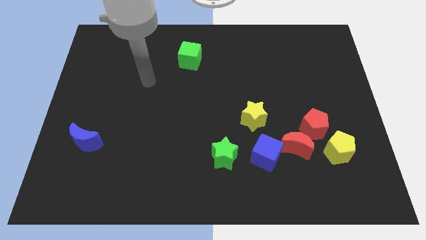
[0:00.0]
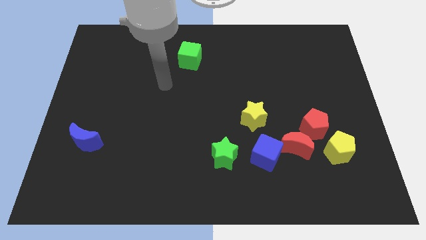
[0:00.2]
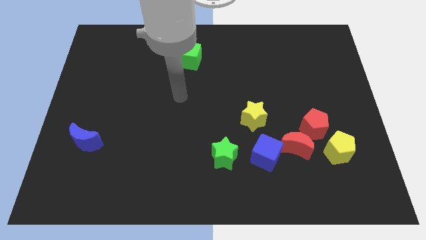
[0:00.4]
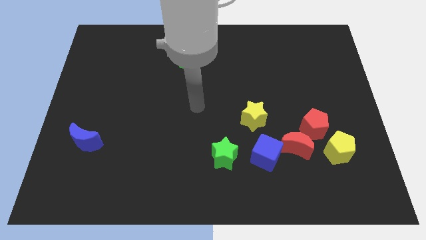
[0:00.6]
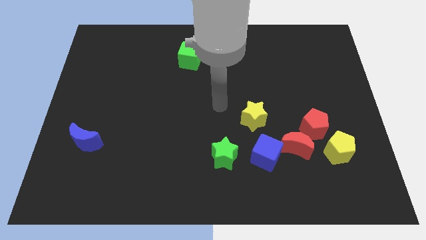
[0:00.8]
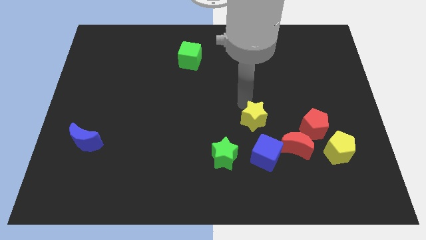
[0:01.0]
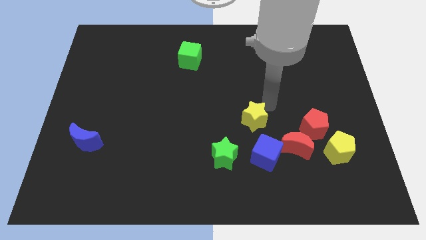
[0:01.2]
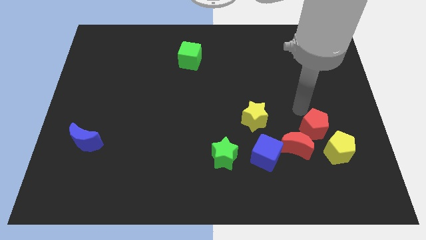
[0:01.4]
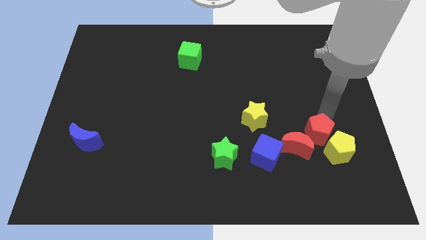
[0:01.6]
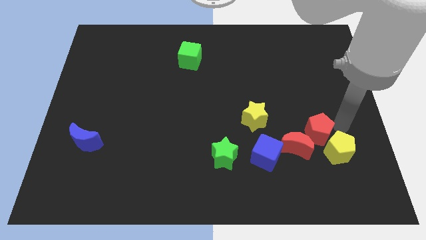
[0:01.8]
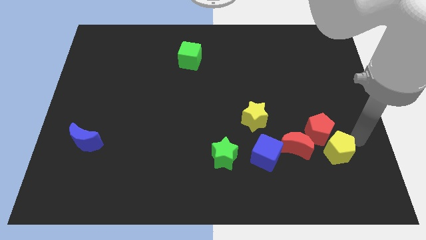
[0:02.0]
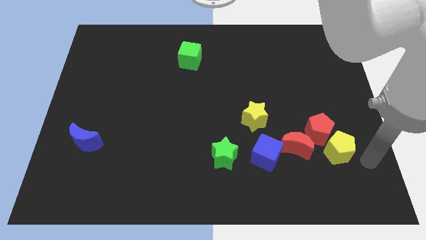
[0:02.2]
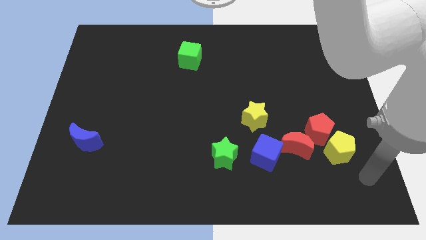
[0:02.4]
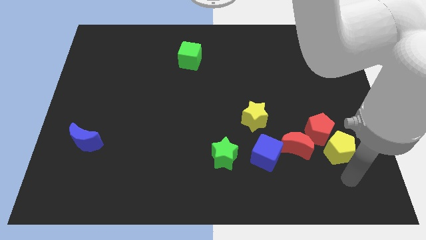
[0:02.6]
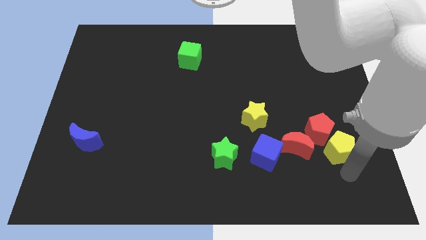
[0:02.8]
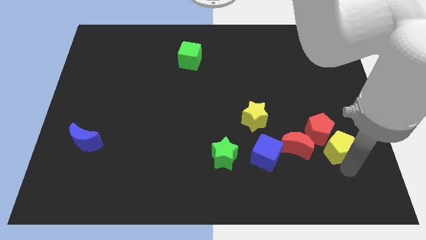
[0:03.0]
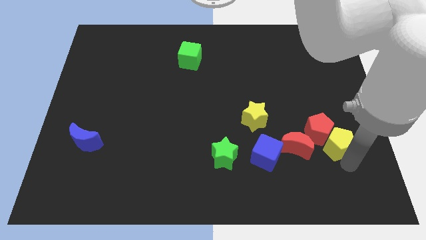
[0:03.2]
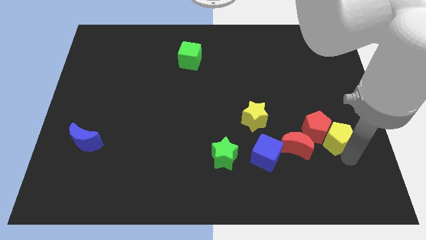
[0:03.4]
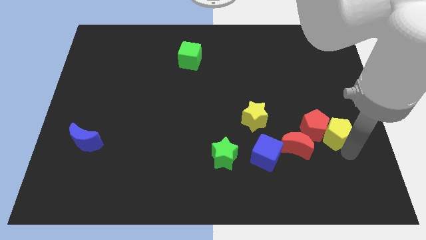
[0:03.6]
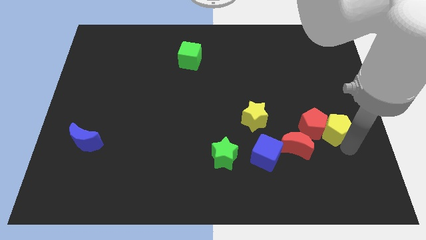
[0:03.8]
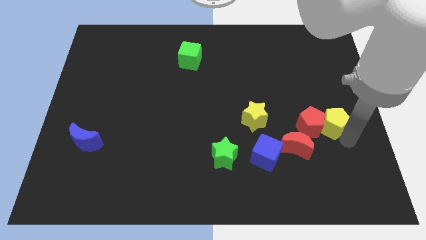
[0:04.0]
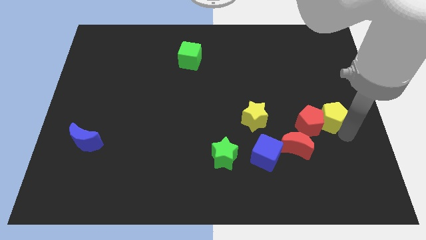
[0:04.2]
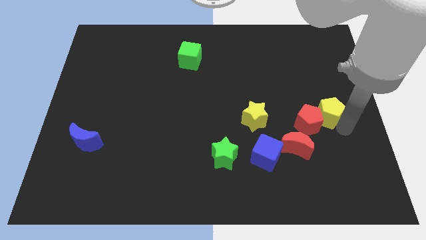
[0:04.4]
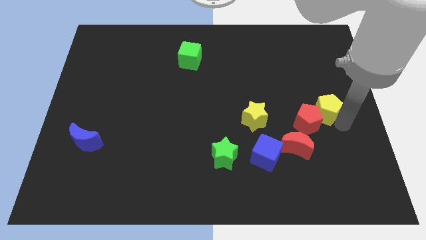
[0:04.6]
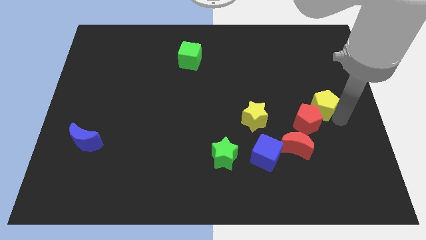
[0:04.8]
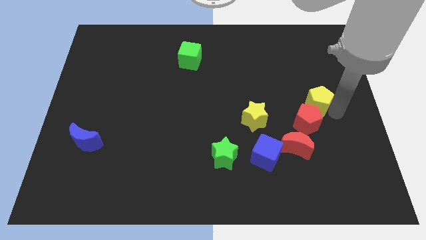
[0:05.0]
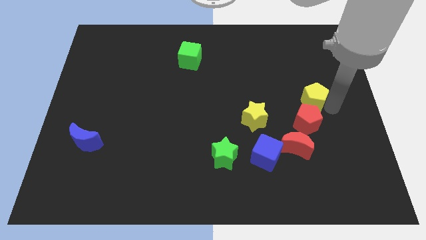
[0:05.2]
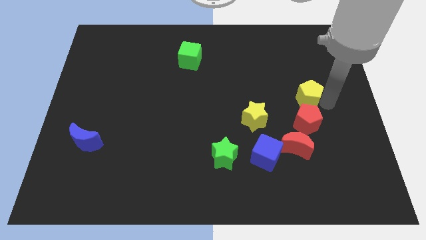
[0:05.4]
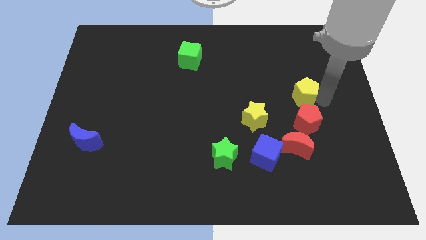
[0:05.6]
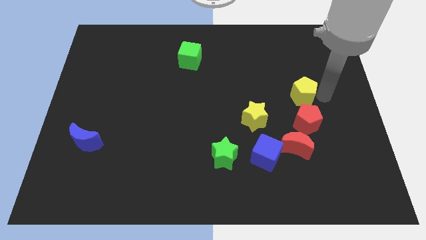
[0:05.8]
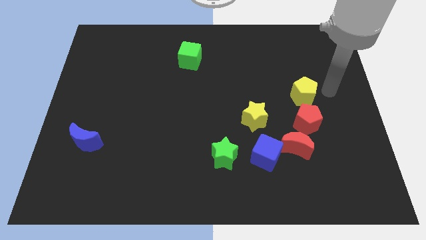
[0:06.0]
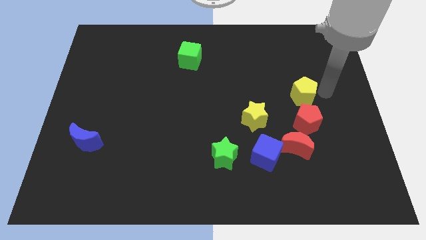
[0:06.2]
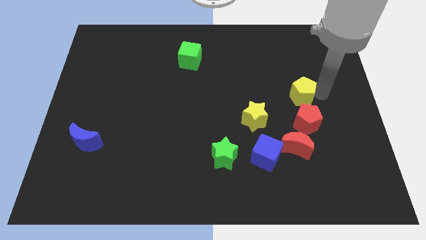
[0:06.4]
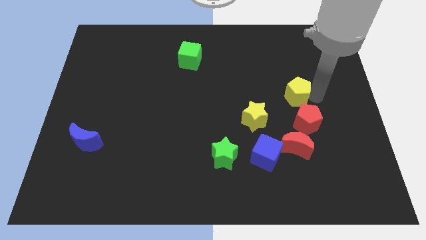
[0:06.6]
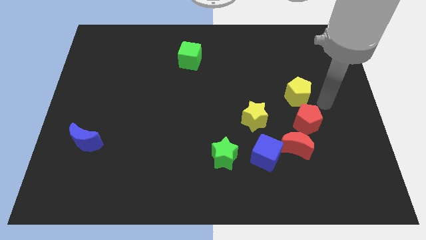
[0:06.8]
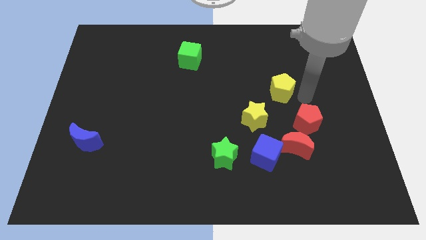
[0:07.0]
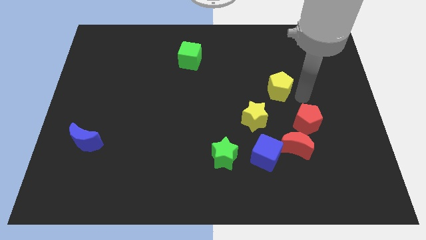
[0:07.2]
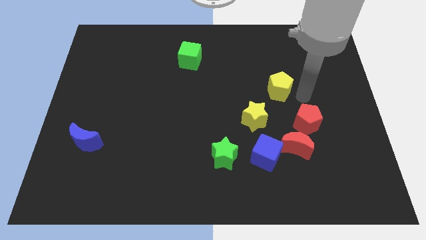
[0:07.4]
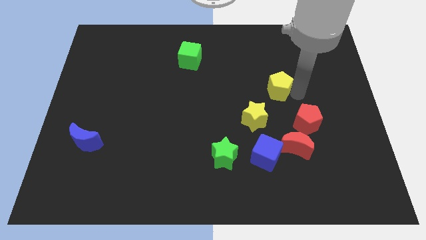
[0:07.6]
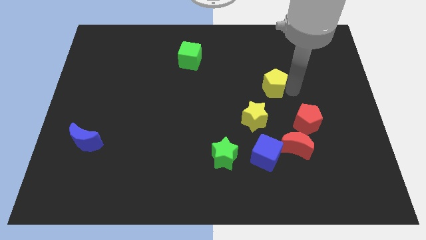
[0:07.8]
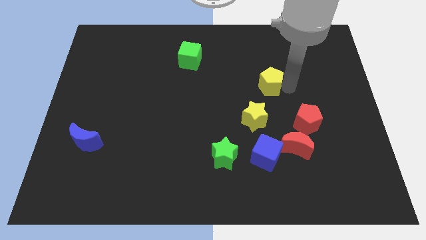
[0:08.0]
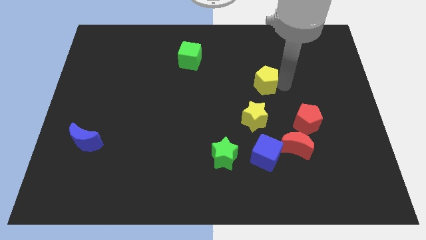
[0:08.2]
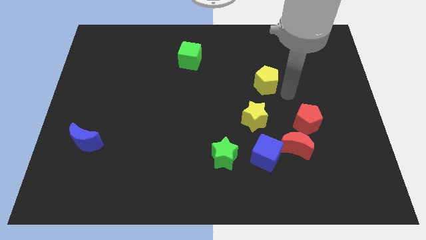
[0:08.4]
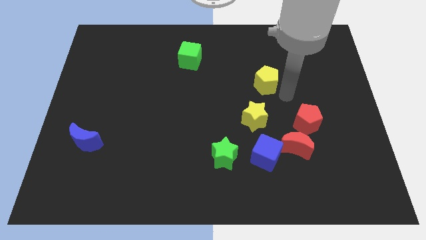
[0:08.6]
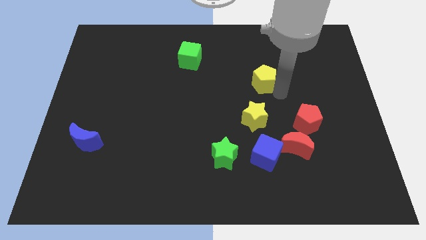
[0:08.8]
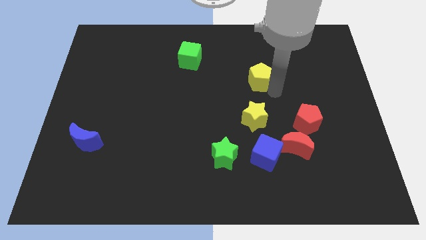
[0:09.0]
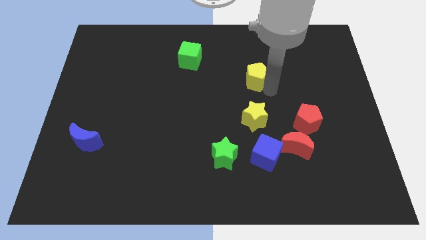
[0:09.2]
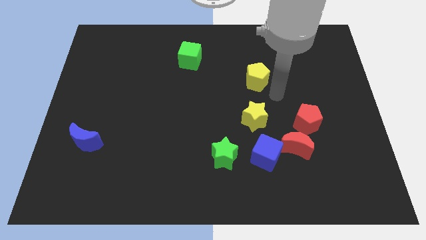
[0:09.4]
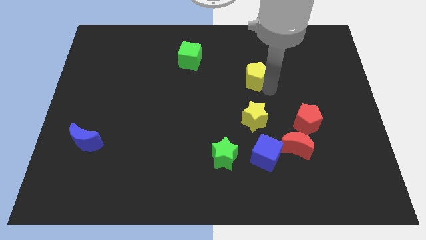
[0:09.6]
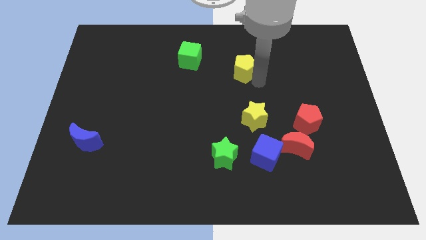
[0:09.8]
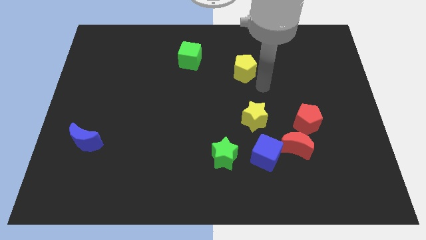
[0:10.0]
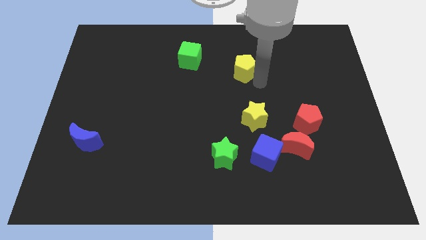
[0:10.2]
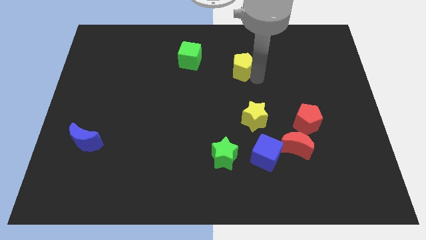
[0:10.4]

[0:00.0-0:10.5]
push the yellow pentagon just right of the green cube

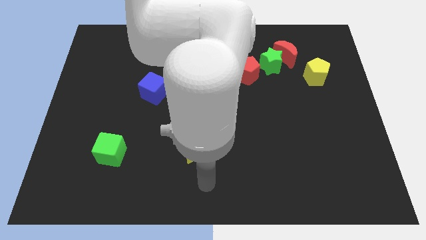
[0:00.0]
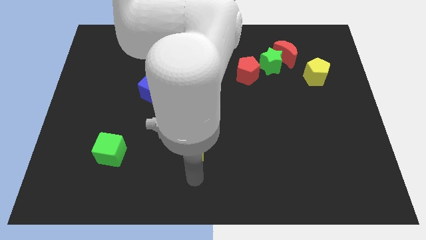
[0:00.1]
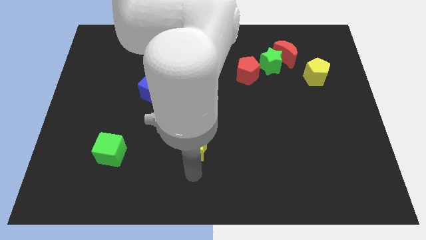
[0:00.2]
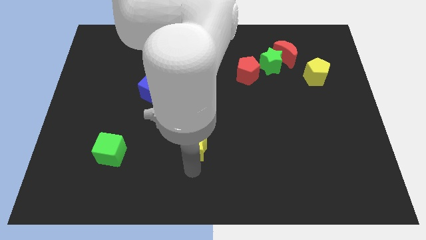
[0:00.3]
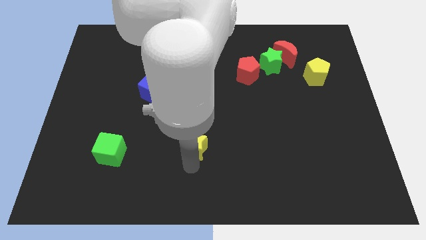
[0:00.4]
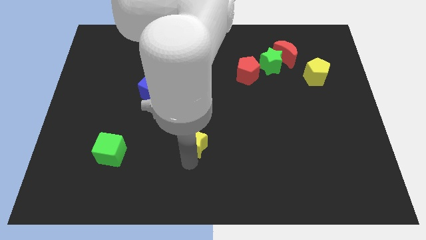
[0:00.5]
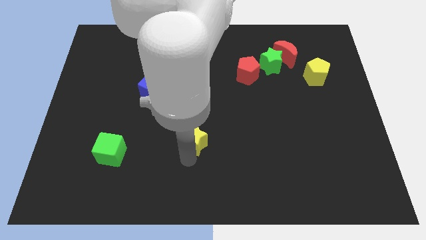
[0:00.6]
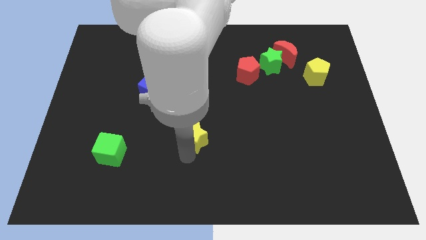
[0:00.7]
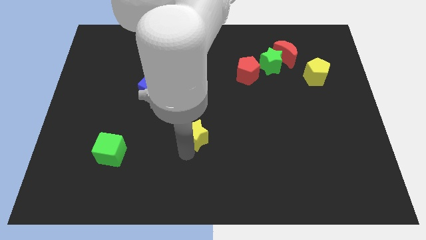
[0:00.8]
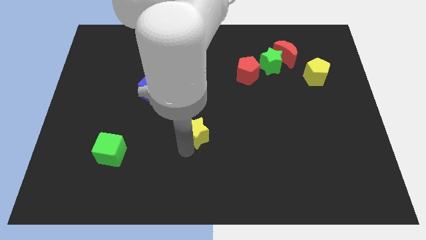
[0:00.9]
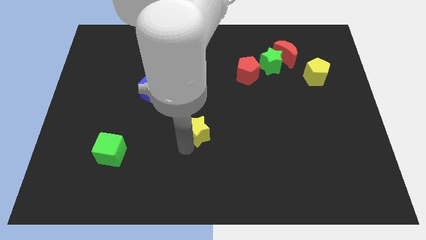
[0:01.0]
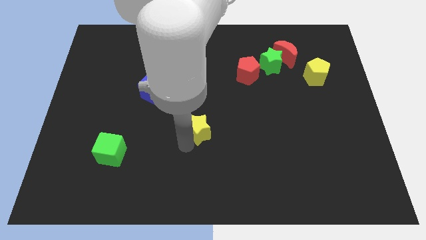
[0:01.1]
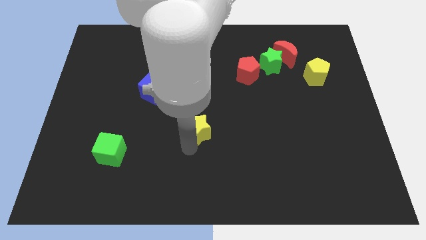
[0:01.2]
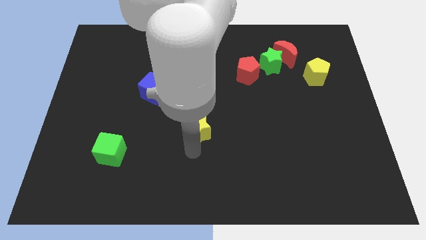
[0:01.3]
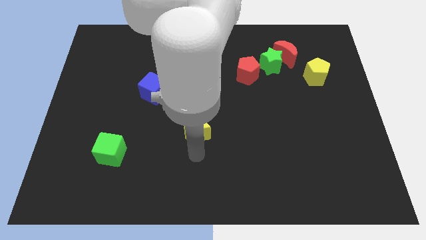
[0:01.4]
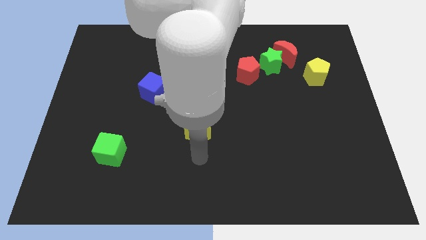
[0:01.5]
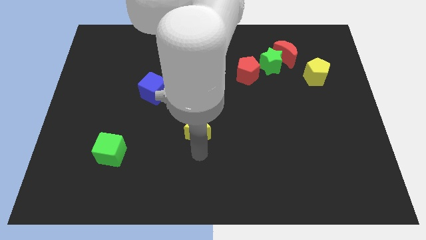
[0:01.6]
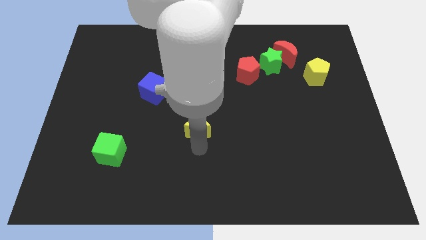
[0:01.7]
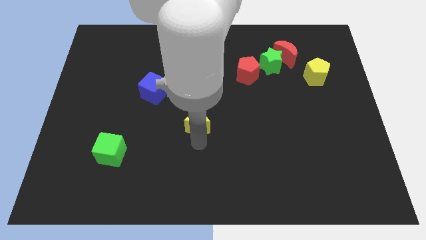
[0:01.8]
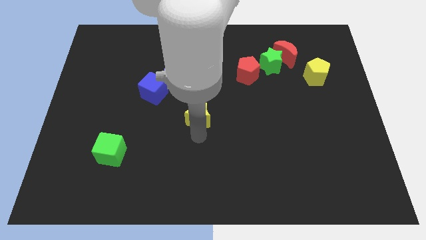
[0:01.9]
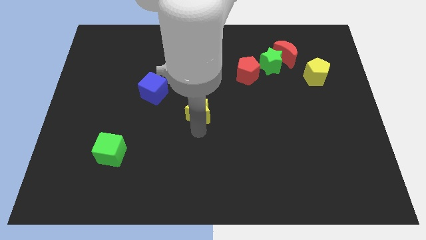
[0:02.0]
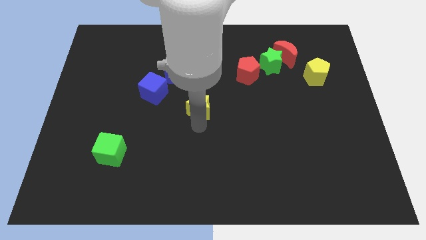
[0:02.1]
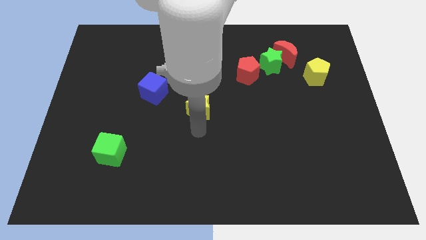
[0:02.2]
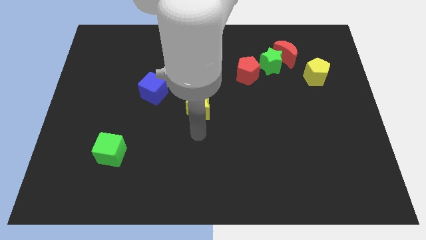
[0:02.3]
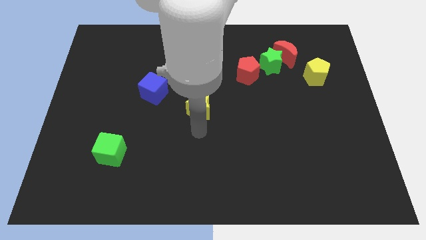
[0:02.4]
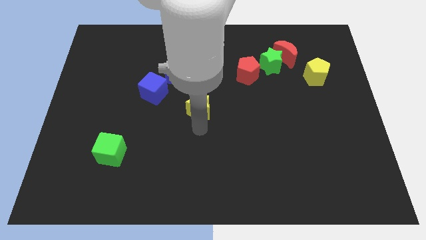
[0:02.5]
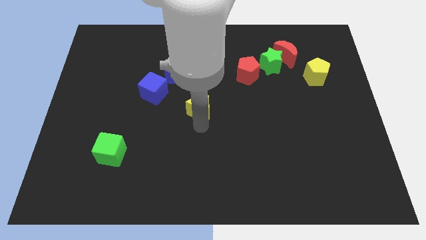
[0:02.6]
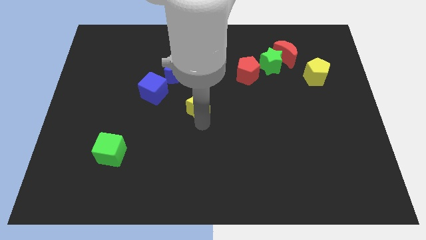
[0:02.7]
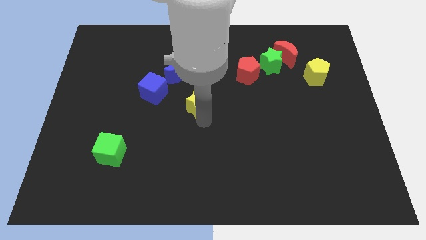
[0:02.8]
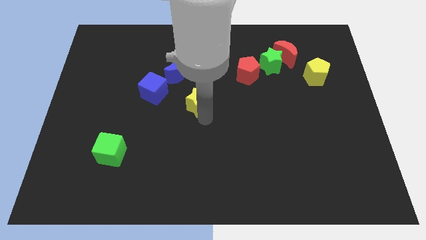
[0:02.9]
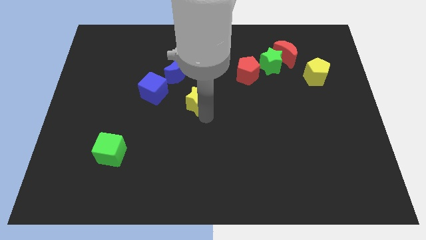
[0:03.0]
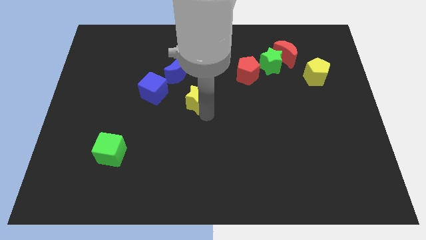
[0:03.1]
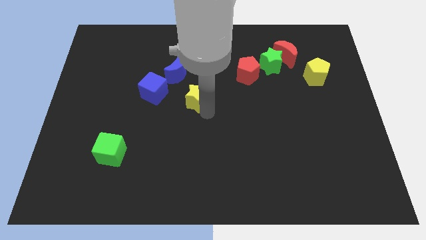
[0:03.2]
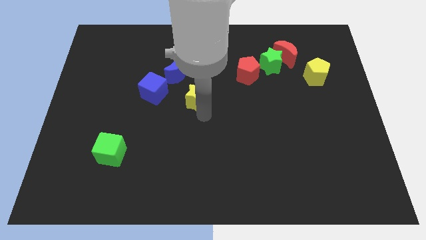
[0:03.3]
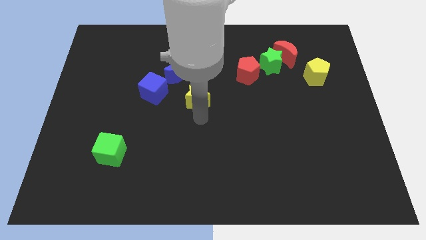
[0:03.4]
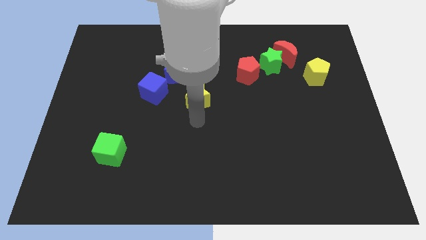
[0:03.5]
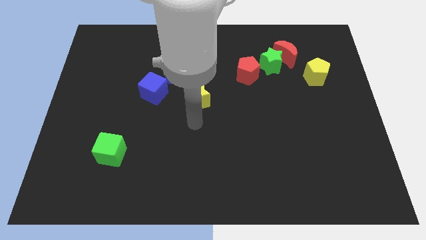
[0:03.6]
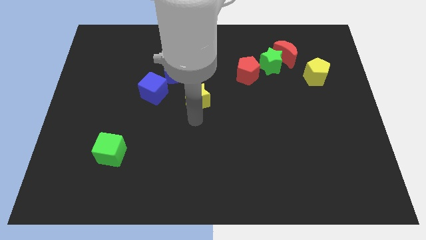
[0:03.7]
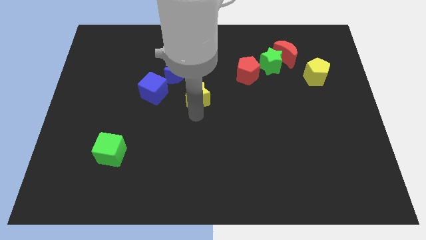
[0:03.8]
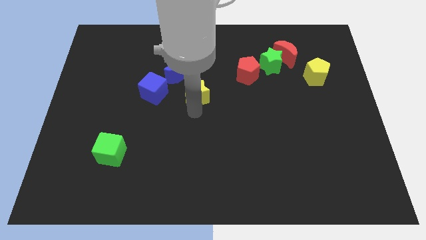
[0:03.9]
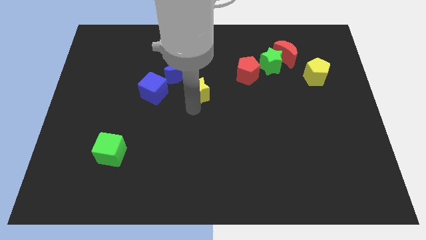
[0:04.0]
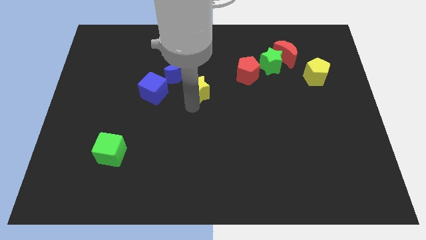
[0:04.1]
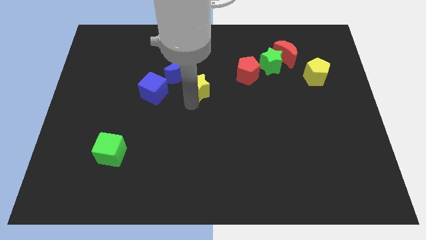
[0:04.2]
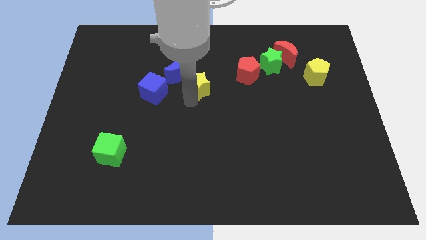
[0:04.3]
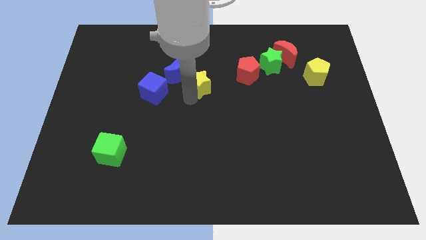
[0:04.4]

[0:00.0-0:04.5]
slide the yellow star to the left side of the red pentagon
